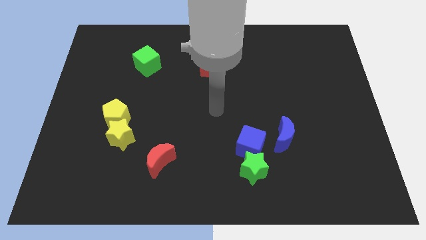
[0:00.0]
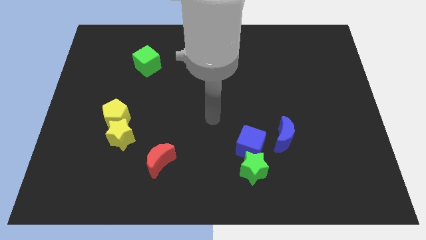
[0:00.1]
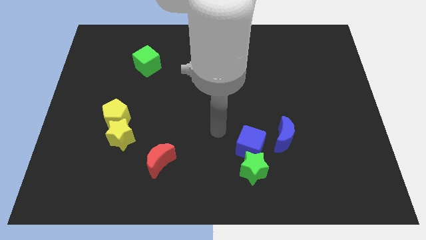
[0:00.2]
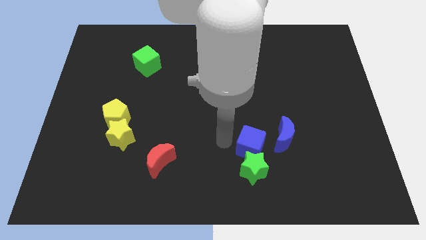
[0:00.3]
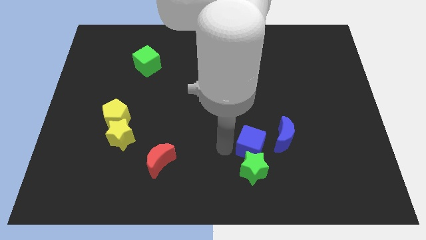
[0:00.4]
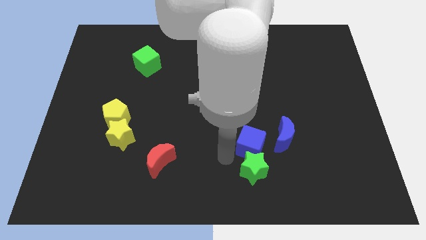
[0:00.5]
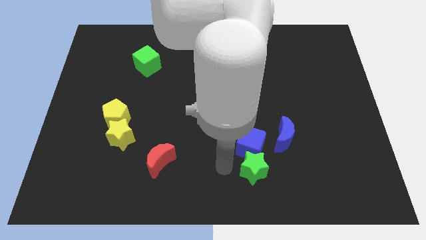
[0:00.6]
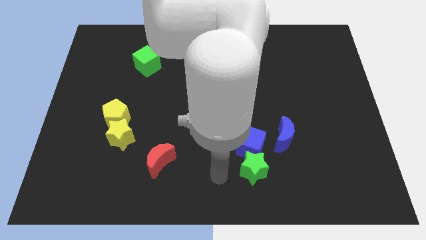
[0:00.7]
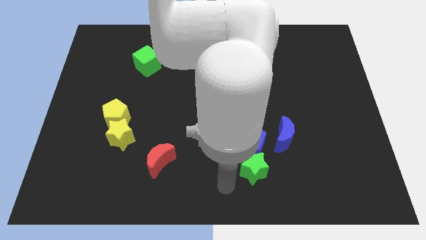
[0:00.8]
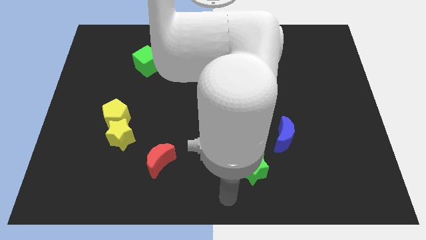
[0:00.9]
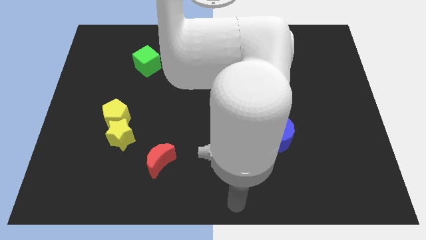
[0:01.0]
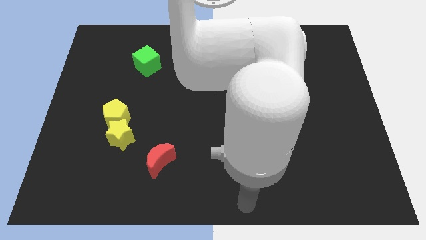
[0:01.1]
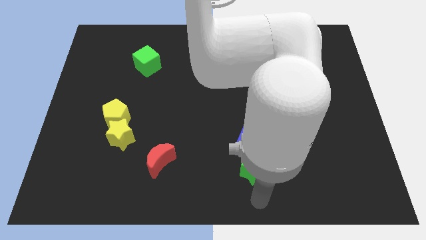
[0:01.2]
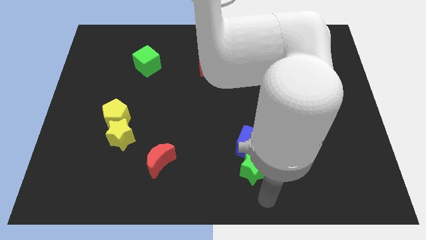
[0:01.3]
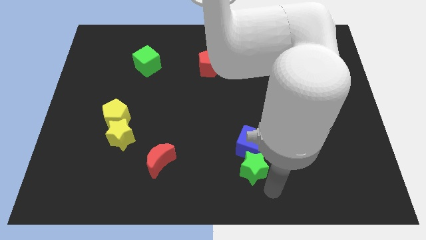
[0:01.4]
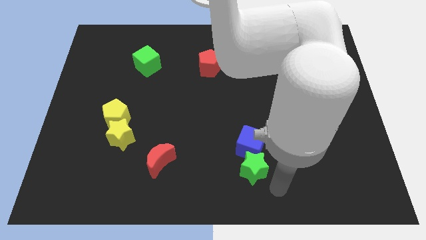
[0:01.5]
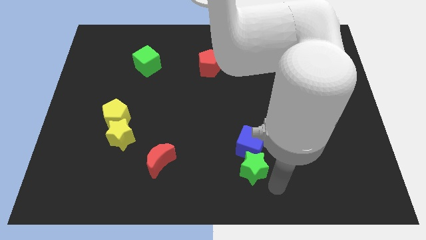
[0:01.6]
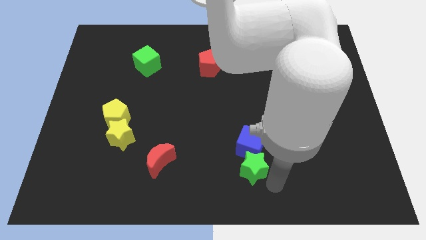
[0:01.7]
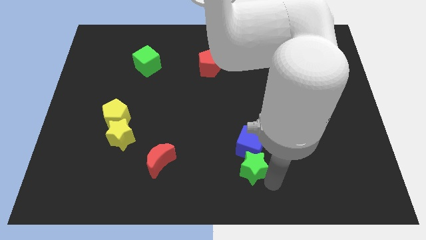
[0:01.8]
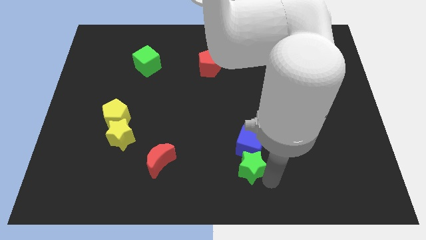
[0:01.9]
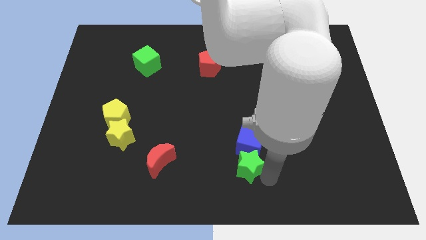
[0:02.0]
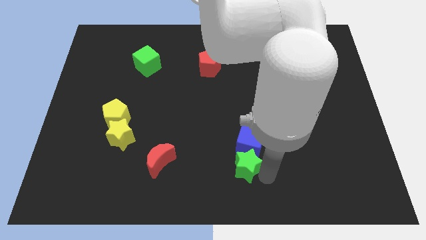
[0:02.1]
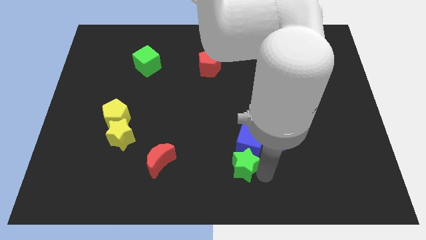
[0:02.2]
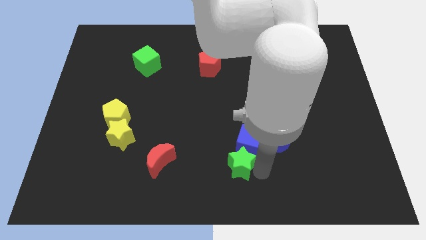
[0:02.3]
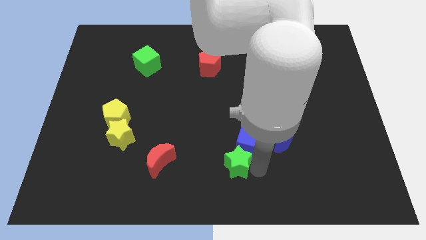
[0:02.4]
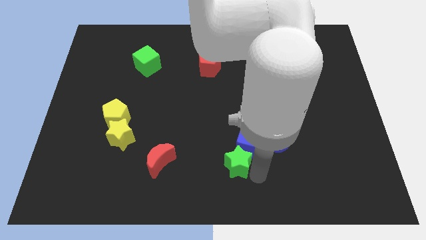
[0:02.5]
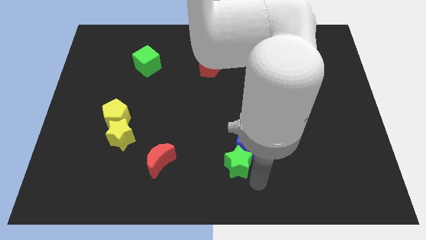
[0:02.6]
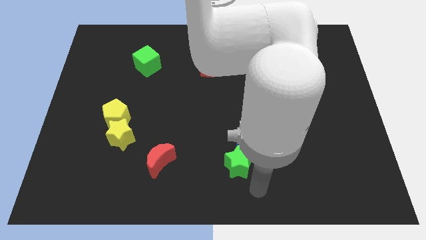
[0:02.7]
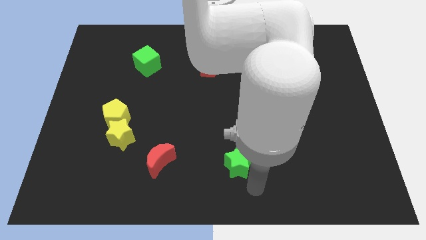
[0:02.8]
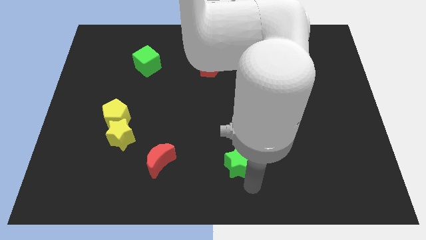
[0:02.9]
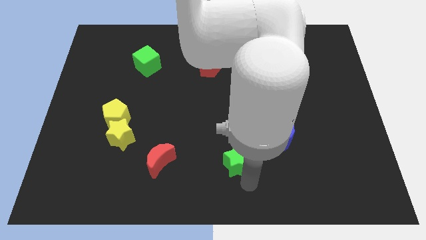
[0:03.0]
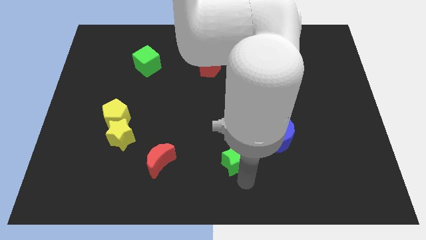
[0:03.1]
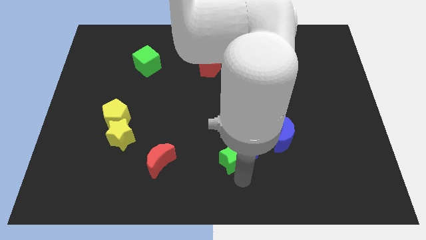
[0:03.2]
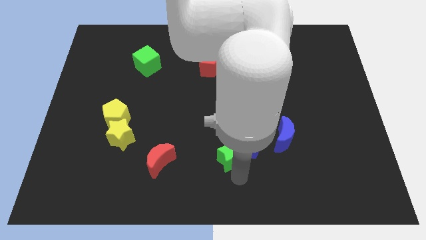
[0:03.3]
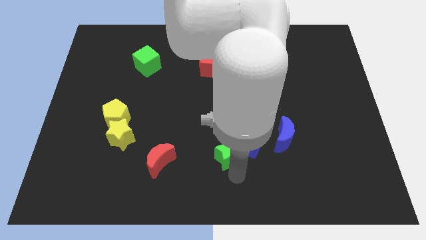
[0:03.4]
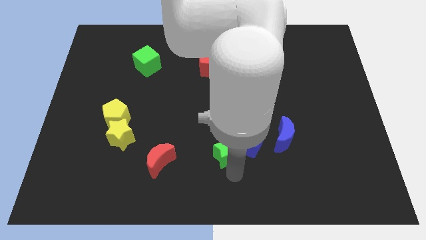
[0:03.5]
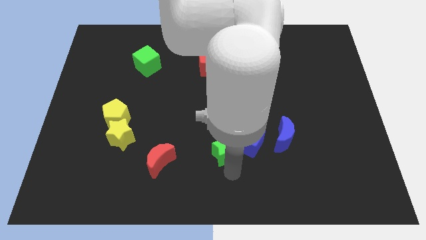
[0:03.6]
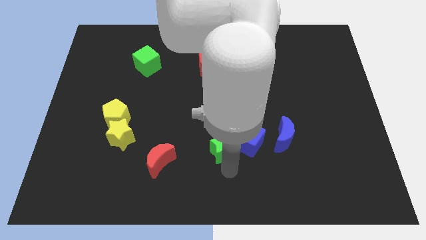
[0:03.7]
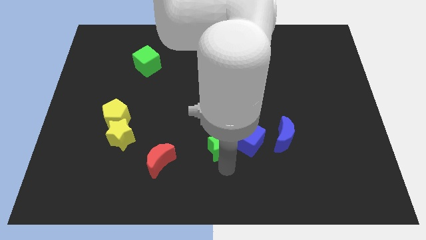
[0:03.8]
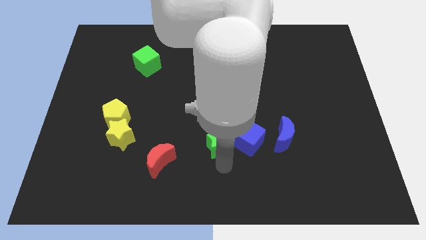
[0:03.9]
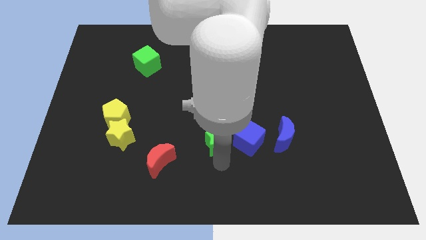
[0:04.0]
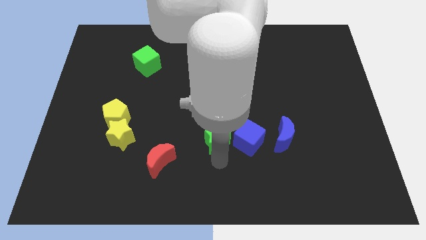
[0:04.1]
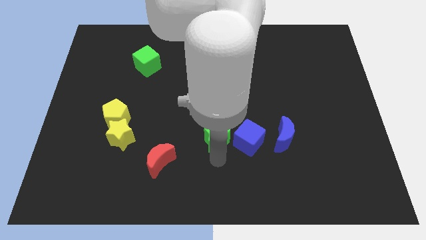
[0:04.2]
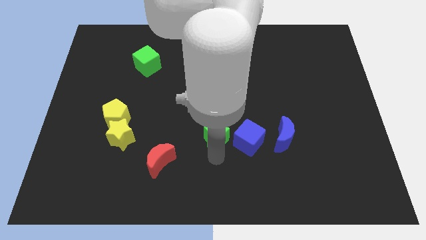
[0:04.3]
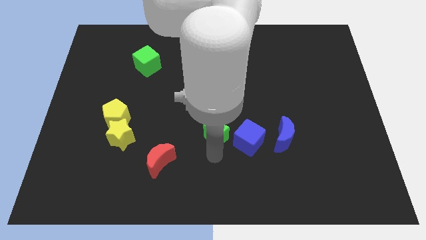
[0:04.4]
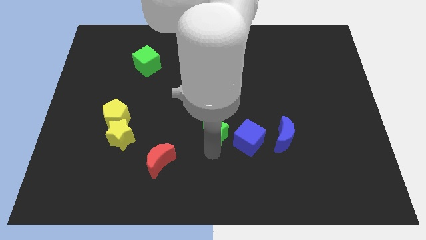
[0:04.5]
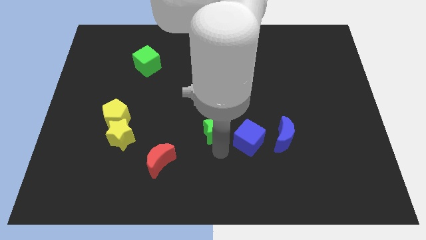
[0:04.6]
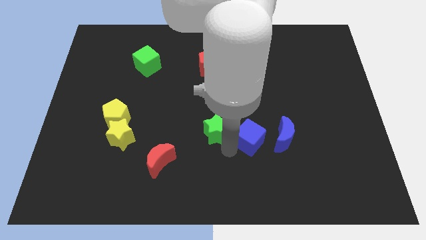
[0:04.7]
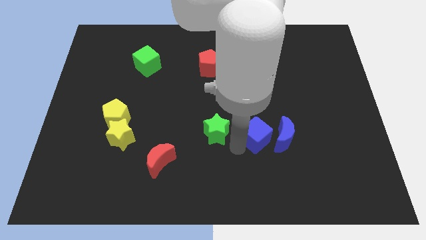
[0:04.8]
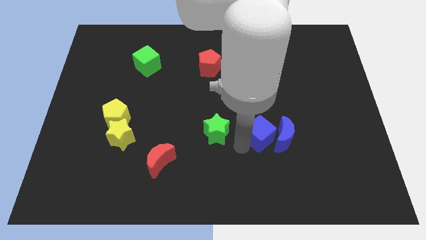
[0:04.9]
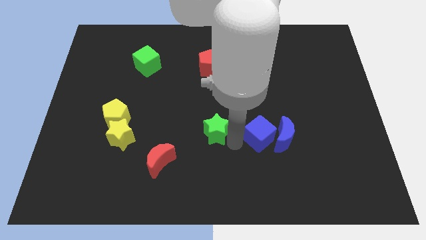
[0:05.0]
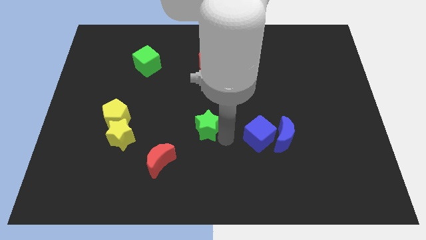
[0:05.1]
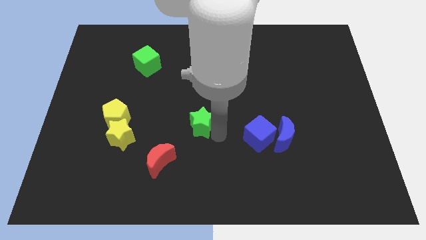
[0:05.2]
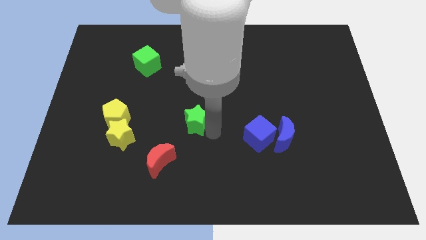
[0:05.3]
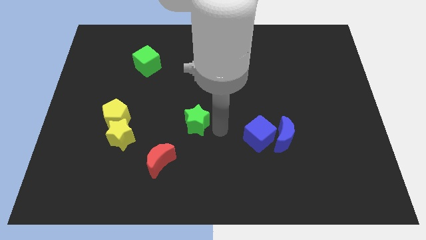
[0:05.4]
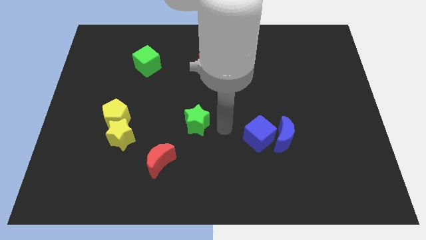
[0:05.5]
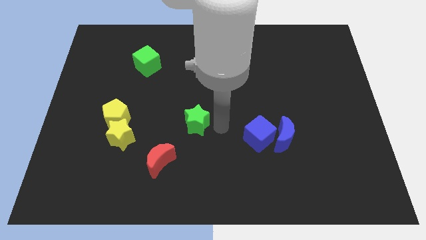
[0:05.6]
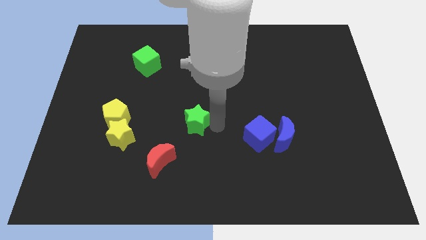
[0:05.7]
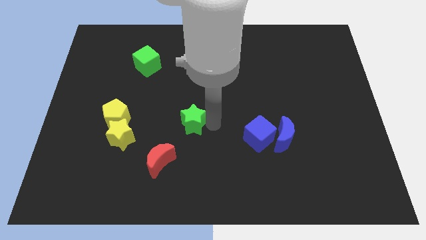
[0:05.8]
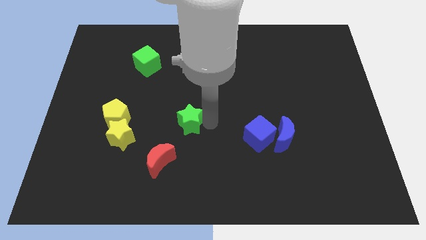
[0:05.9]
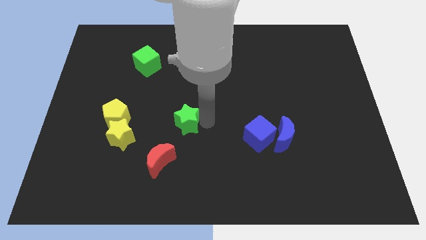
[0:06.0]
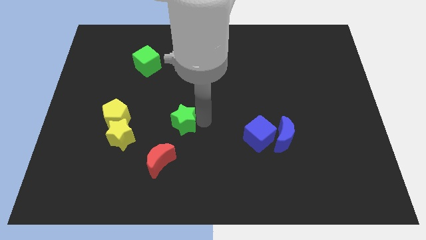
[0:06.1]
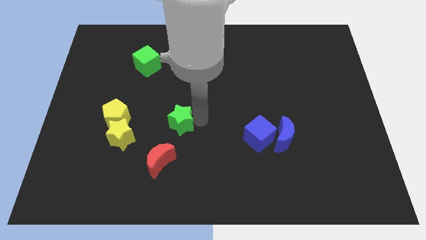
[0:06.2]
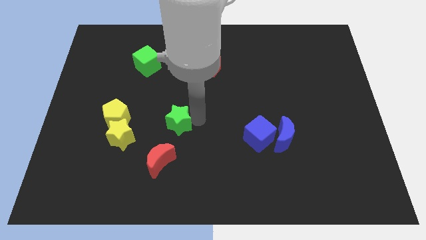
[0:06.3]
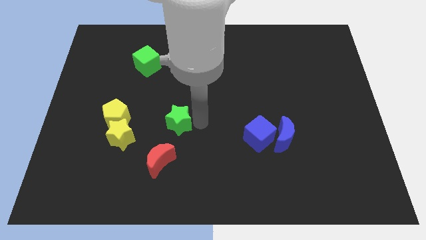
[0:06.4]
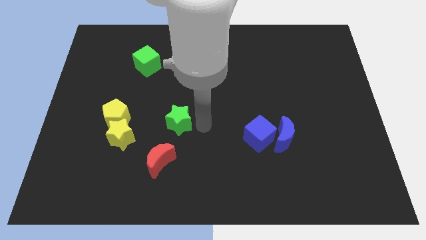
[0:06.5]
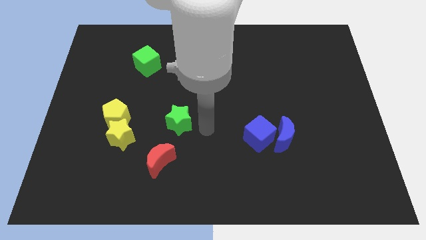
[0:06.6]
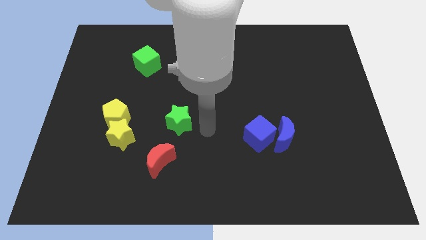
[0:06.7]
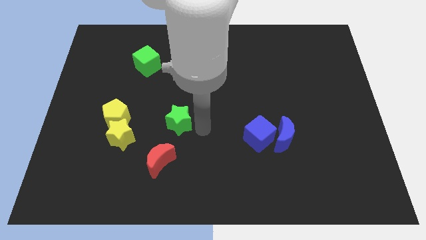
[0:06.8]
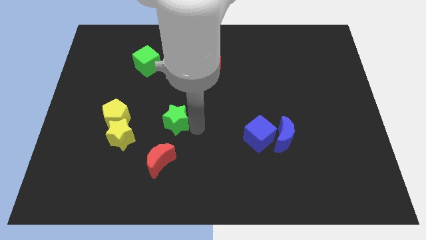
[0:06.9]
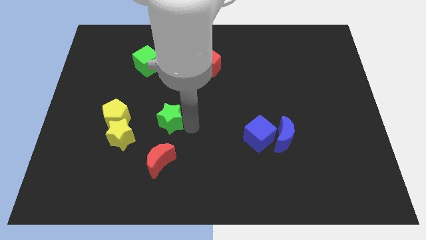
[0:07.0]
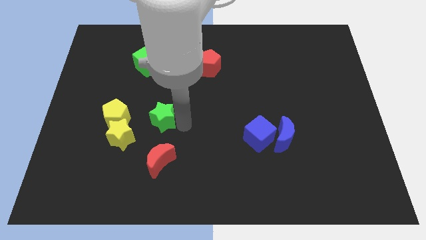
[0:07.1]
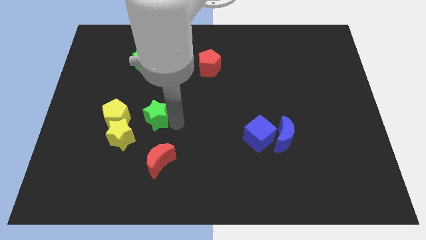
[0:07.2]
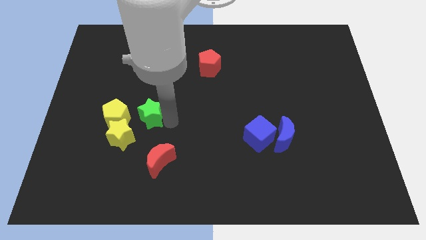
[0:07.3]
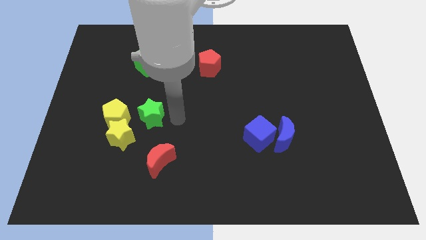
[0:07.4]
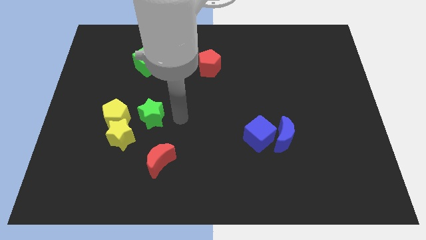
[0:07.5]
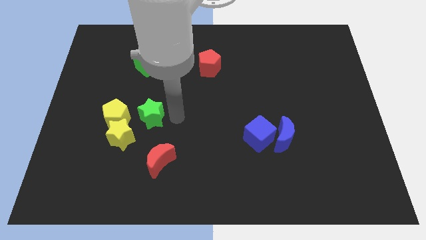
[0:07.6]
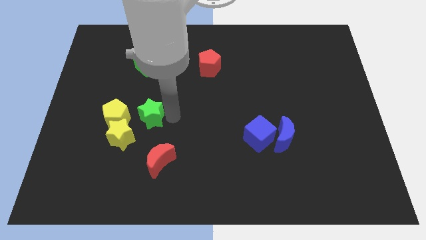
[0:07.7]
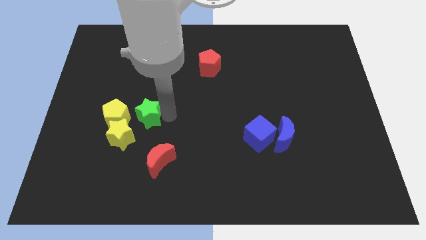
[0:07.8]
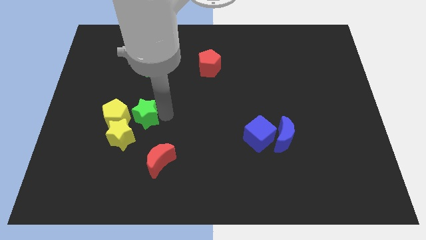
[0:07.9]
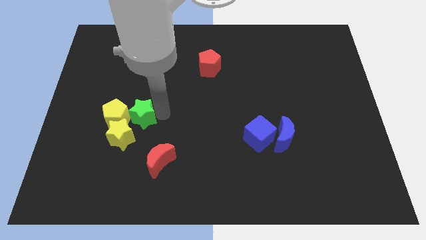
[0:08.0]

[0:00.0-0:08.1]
put the green star next to the yellow pentagon
